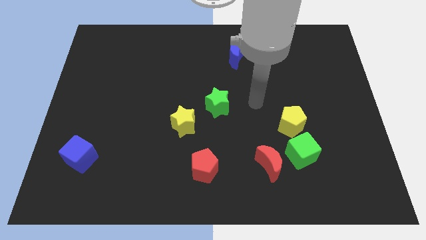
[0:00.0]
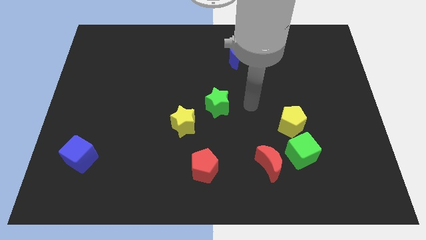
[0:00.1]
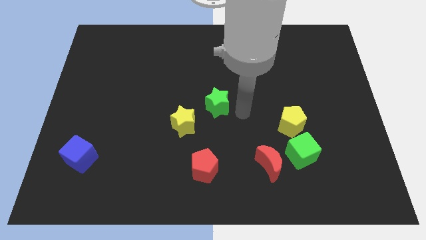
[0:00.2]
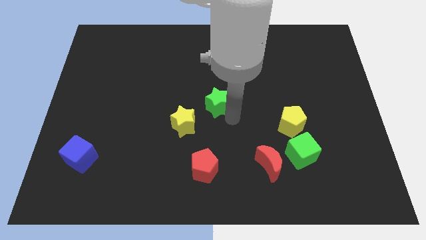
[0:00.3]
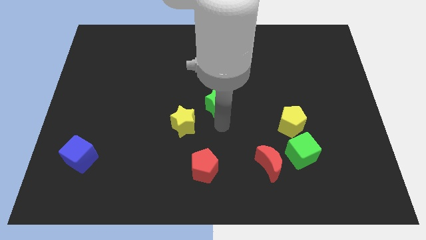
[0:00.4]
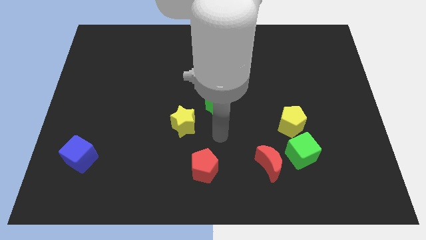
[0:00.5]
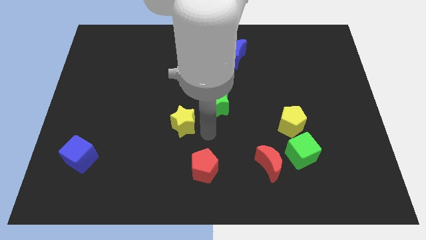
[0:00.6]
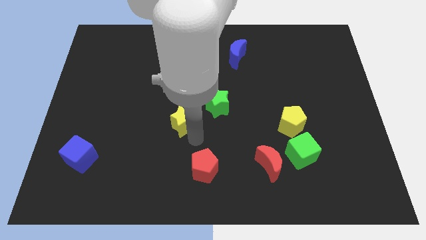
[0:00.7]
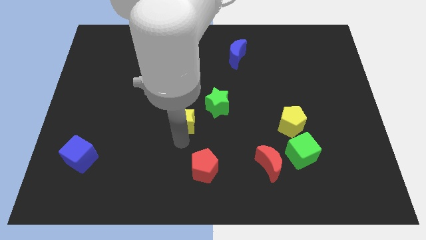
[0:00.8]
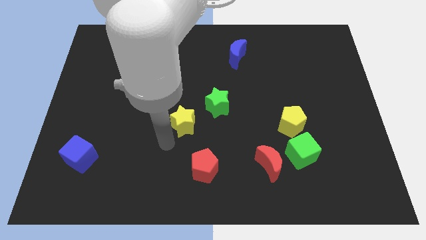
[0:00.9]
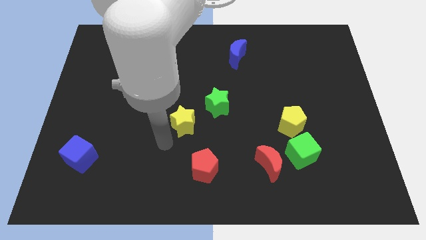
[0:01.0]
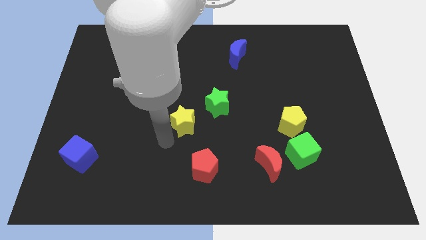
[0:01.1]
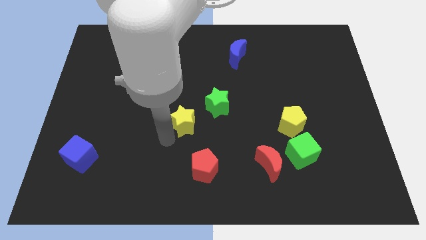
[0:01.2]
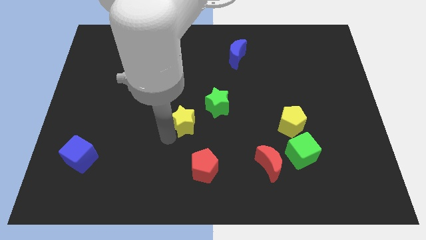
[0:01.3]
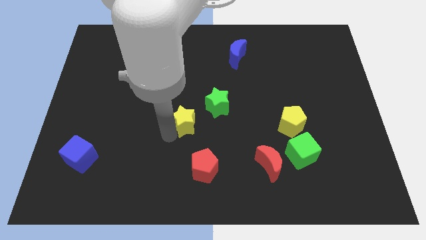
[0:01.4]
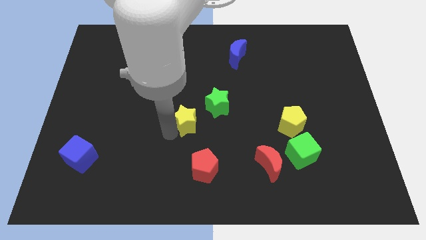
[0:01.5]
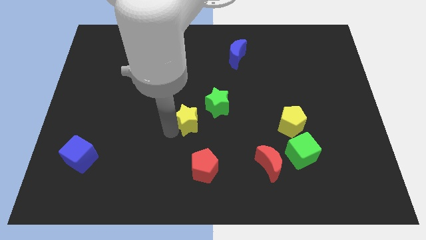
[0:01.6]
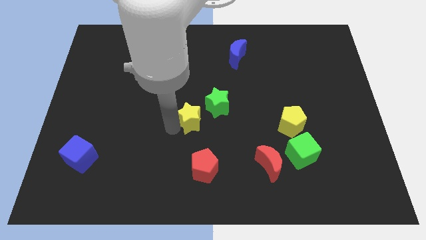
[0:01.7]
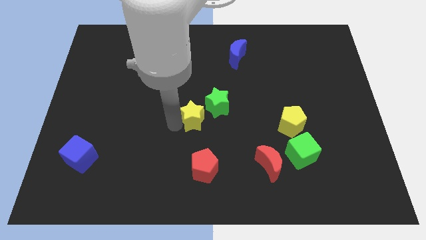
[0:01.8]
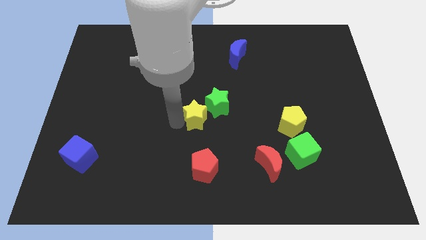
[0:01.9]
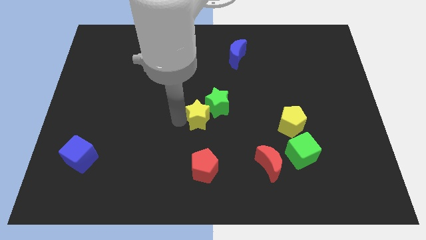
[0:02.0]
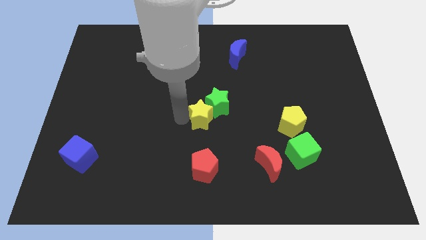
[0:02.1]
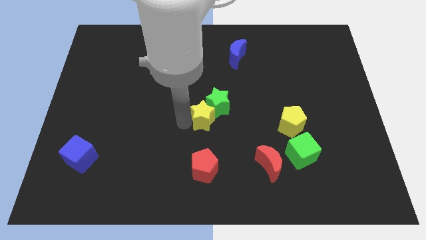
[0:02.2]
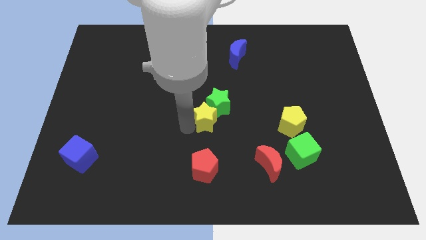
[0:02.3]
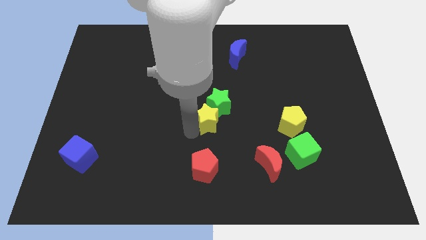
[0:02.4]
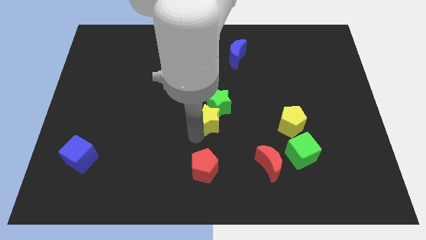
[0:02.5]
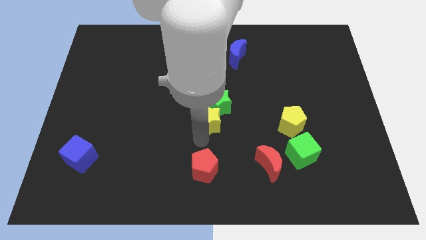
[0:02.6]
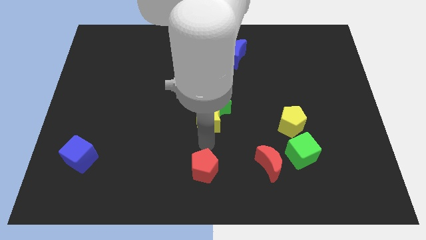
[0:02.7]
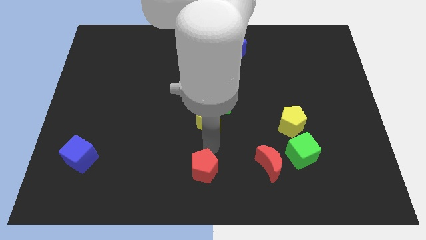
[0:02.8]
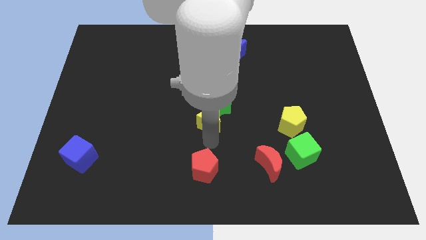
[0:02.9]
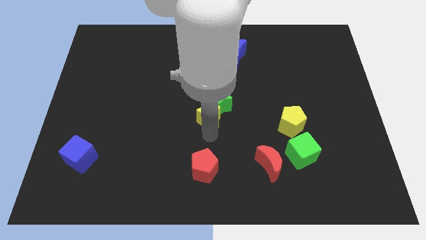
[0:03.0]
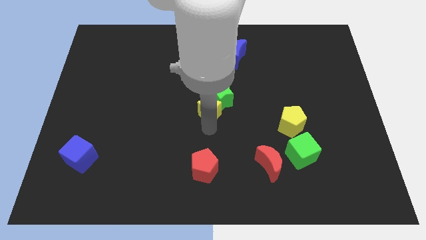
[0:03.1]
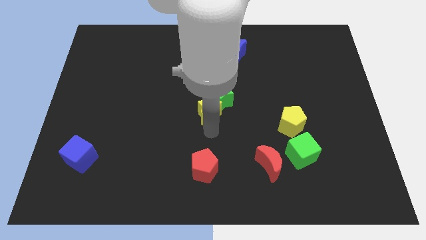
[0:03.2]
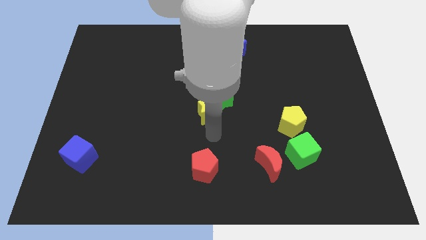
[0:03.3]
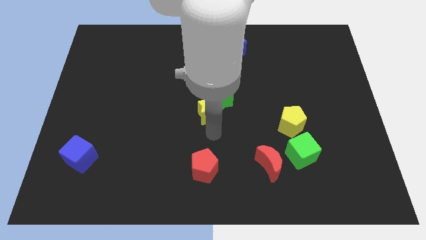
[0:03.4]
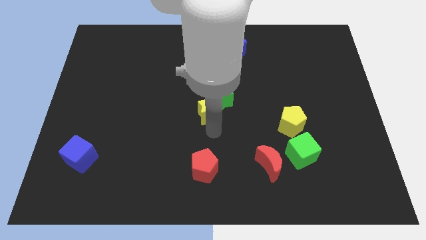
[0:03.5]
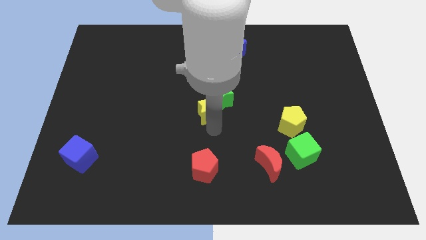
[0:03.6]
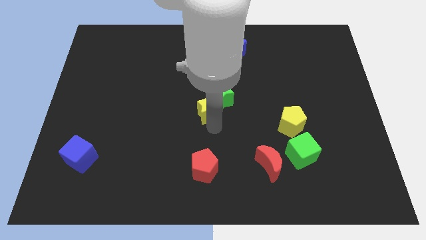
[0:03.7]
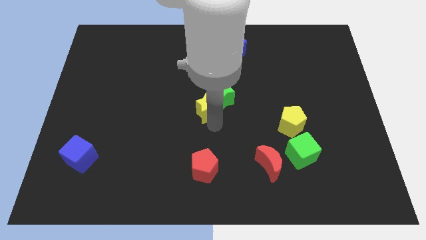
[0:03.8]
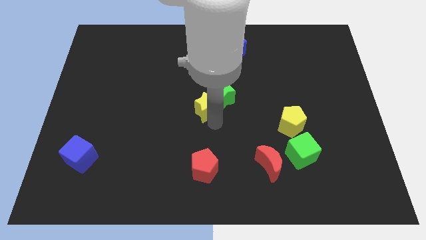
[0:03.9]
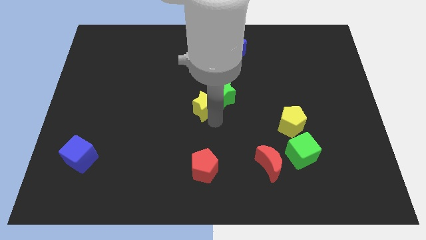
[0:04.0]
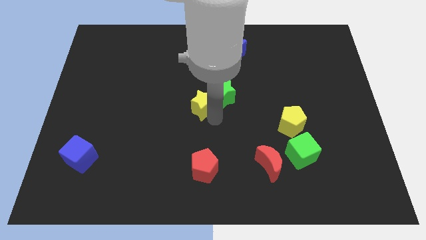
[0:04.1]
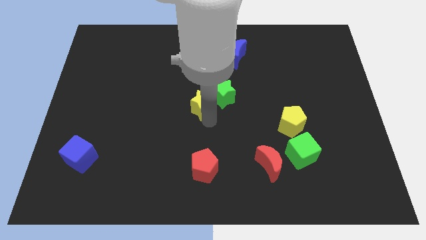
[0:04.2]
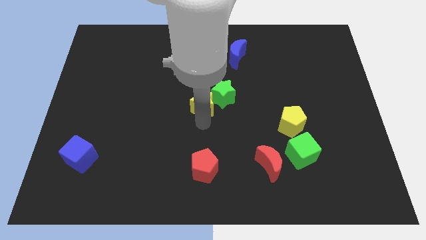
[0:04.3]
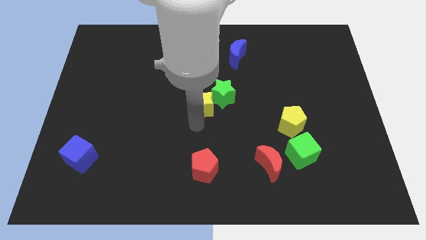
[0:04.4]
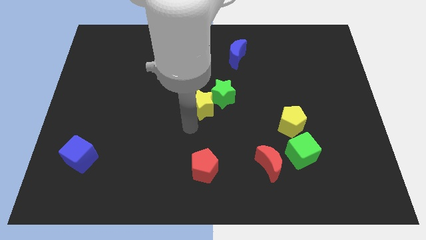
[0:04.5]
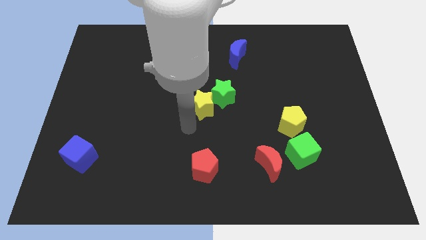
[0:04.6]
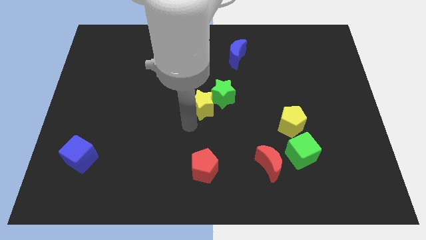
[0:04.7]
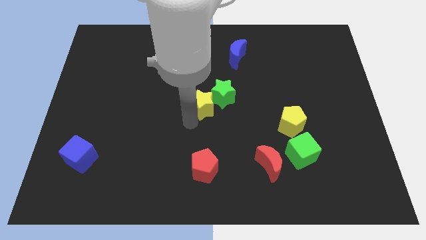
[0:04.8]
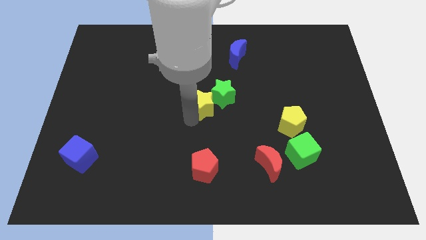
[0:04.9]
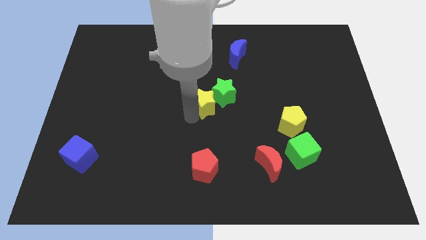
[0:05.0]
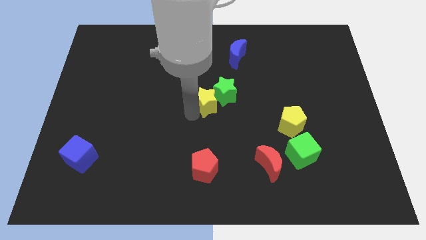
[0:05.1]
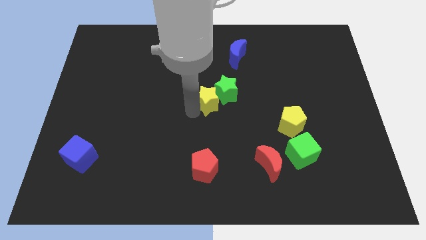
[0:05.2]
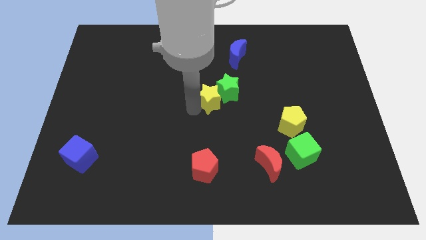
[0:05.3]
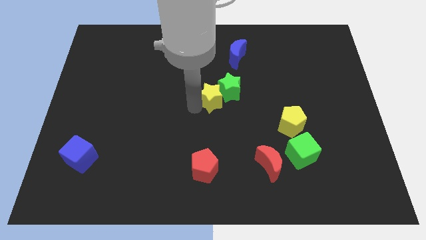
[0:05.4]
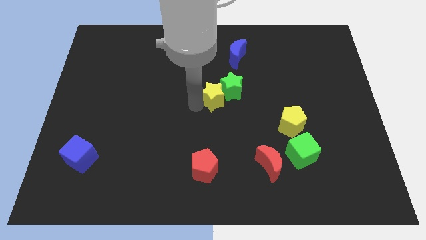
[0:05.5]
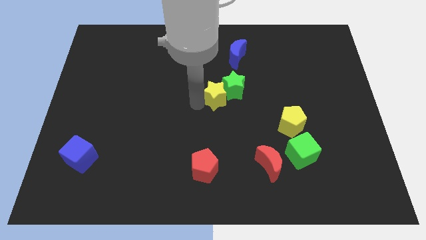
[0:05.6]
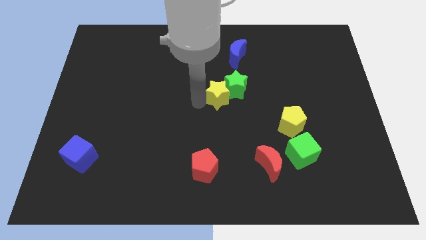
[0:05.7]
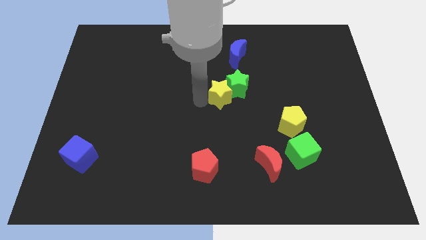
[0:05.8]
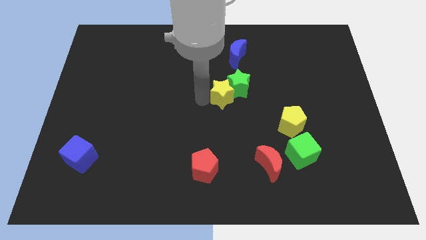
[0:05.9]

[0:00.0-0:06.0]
slide the yellow star below the blue moon

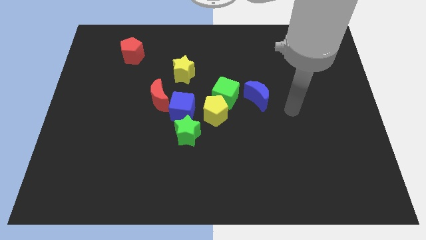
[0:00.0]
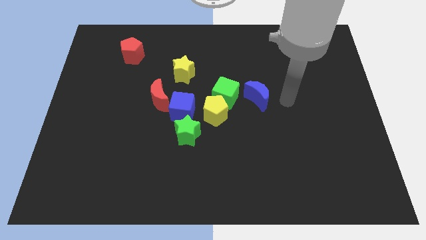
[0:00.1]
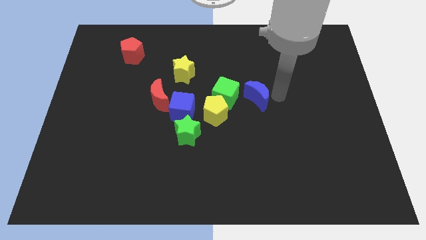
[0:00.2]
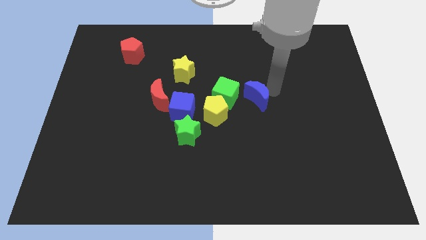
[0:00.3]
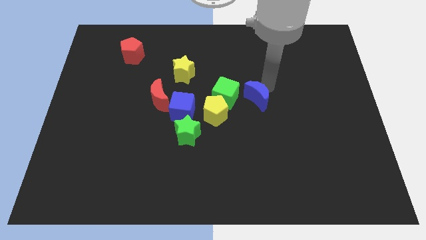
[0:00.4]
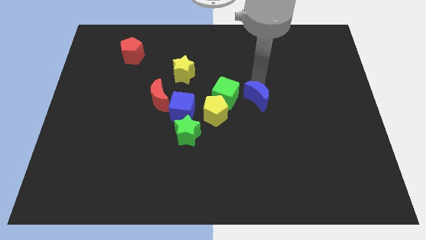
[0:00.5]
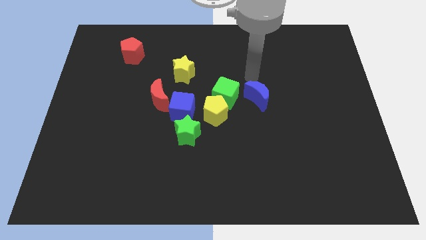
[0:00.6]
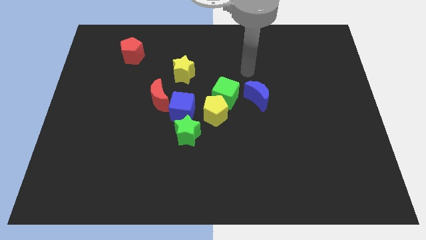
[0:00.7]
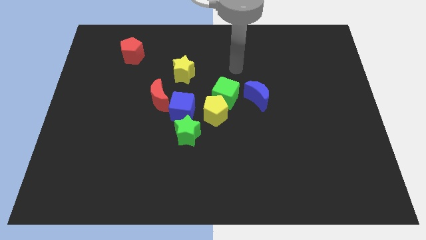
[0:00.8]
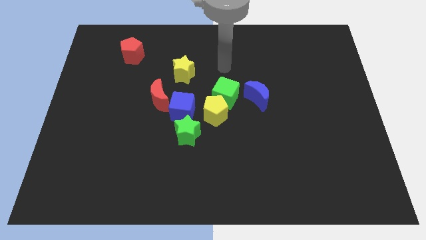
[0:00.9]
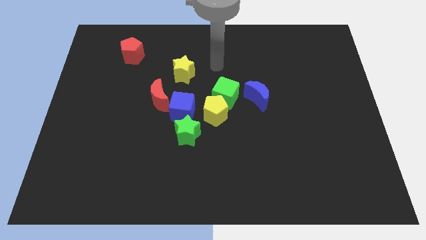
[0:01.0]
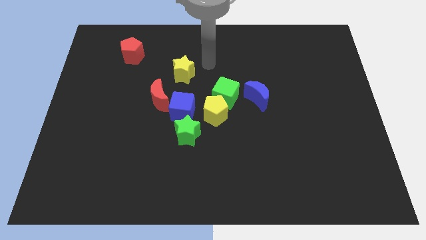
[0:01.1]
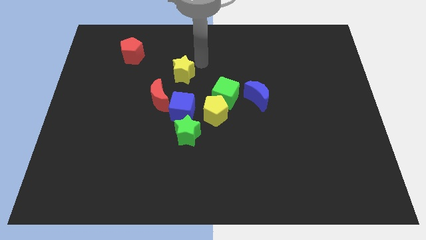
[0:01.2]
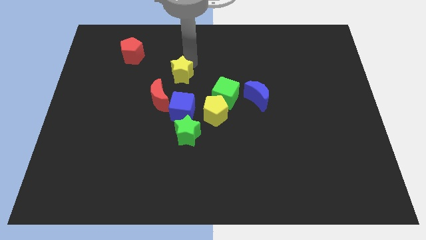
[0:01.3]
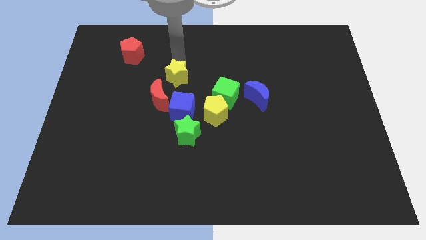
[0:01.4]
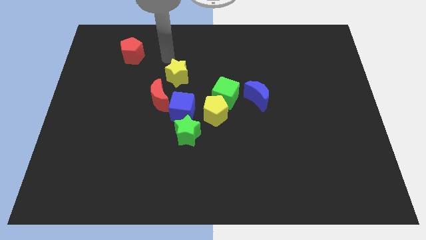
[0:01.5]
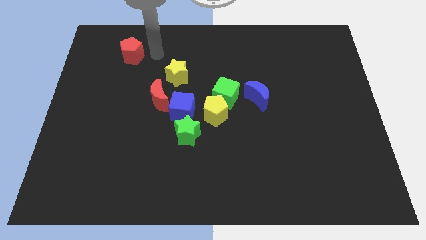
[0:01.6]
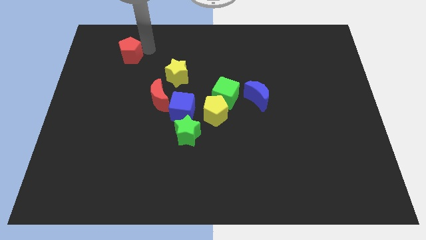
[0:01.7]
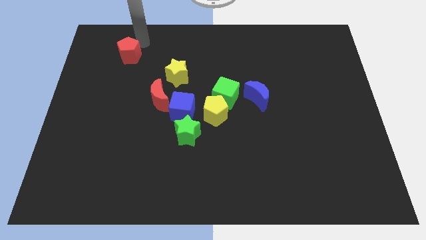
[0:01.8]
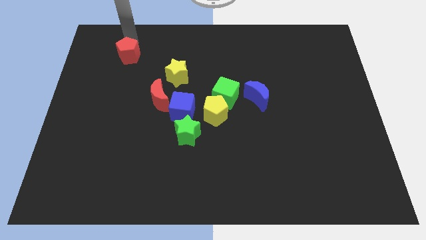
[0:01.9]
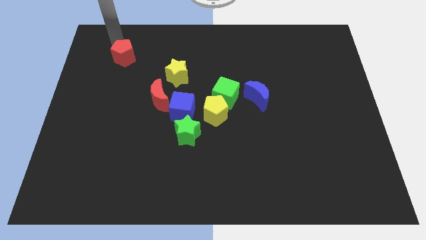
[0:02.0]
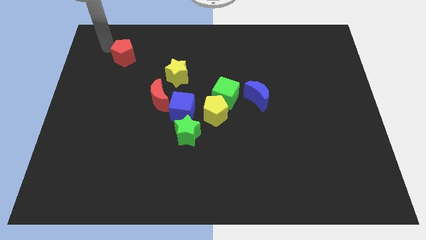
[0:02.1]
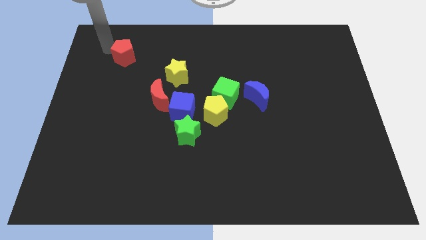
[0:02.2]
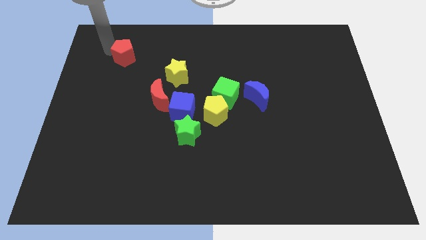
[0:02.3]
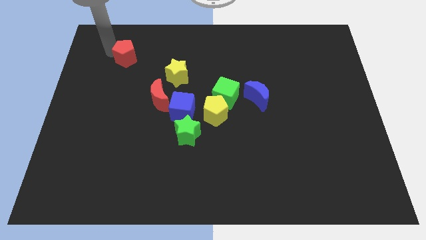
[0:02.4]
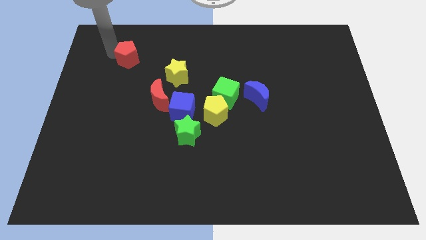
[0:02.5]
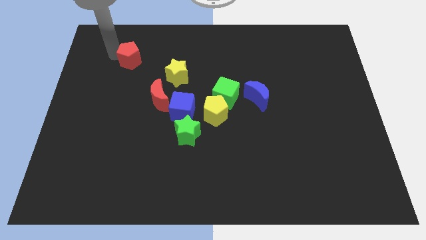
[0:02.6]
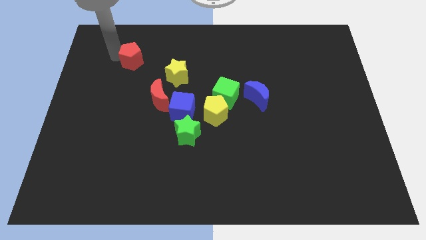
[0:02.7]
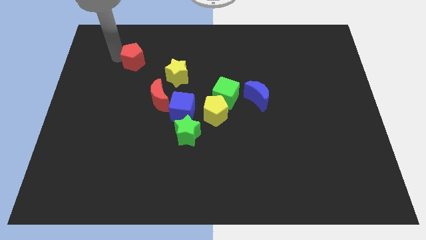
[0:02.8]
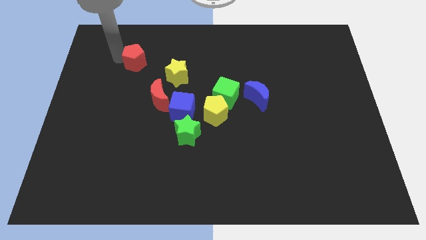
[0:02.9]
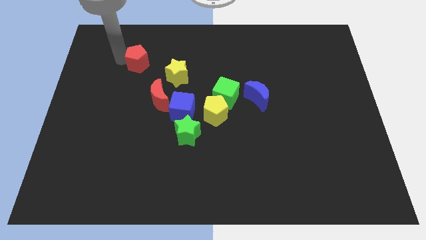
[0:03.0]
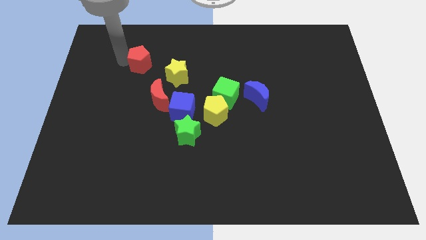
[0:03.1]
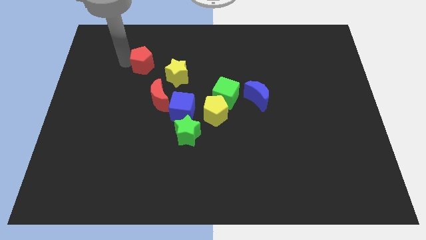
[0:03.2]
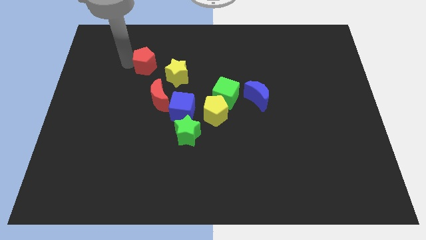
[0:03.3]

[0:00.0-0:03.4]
put the red pentagon to the top of the red moon
